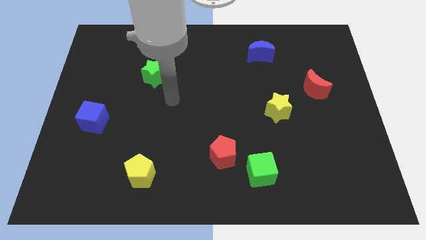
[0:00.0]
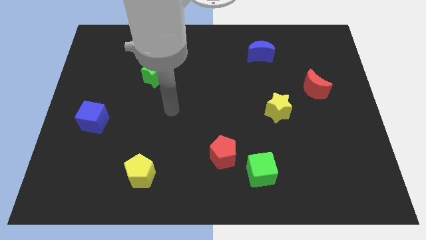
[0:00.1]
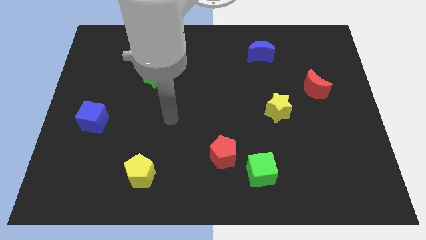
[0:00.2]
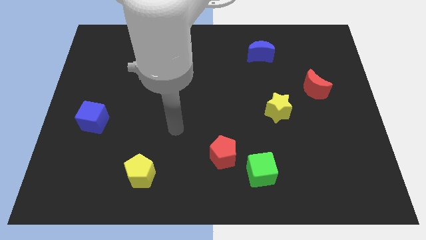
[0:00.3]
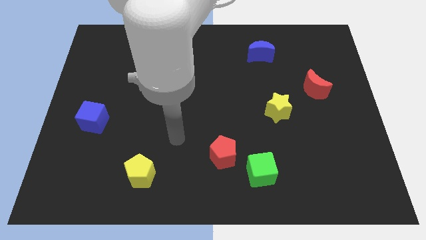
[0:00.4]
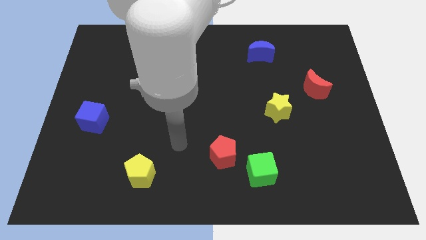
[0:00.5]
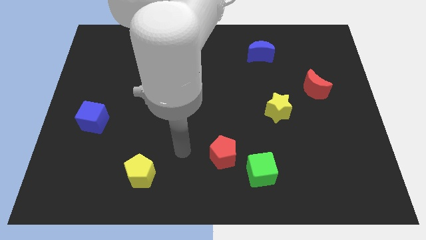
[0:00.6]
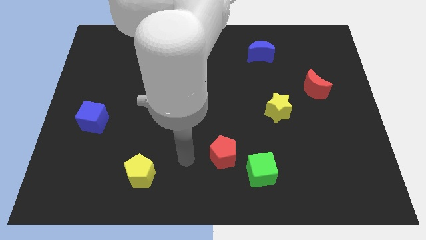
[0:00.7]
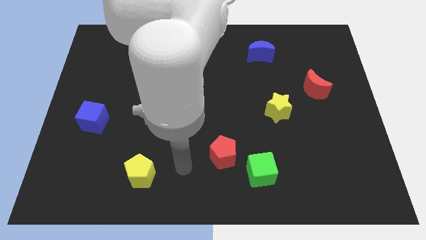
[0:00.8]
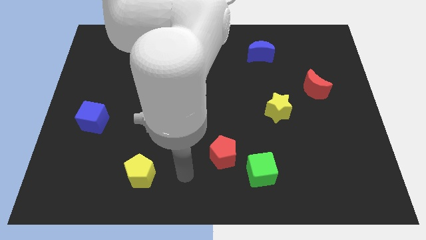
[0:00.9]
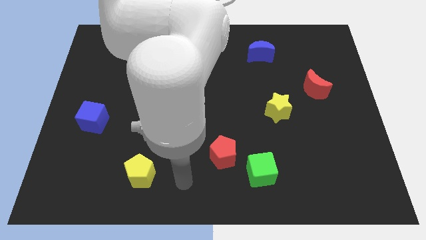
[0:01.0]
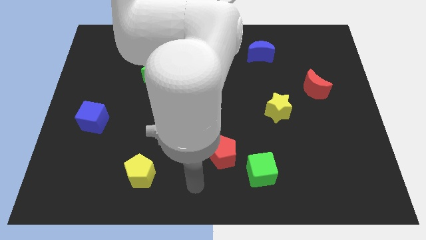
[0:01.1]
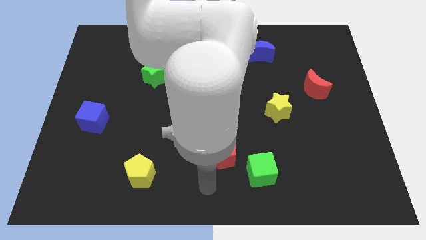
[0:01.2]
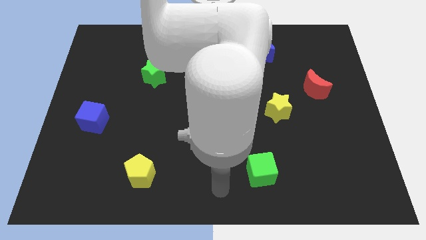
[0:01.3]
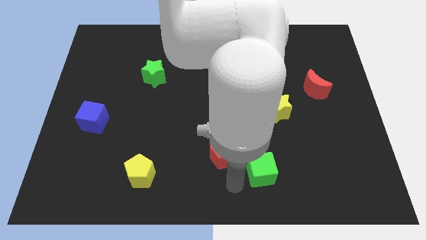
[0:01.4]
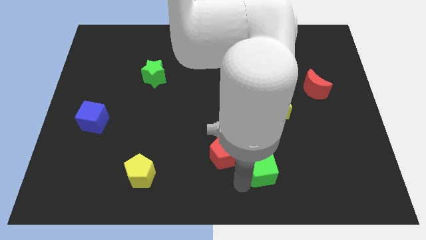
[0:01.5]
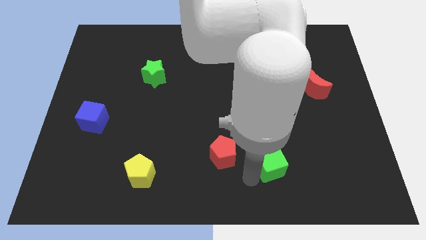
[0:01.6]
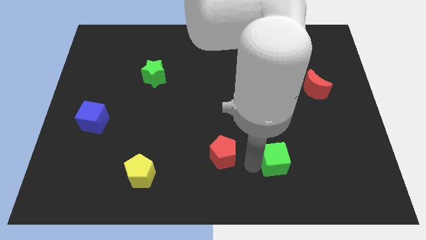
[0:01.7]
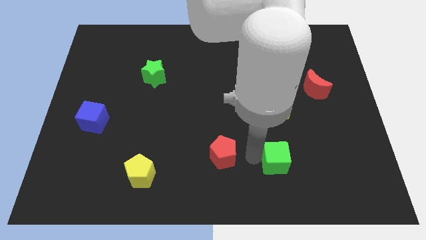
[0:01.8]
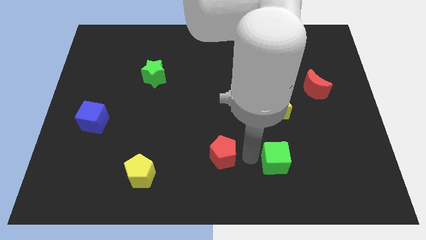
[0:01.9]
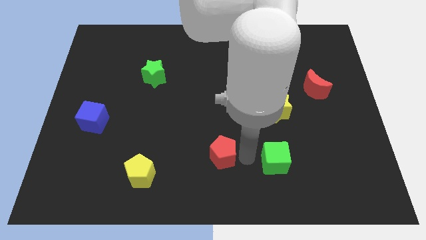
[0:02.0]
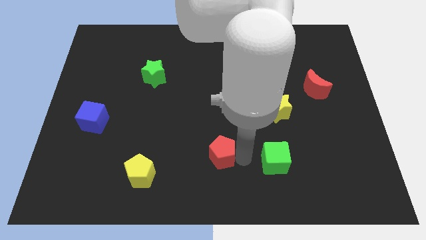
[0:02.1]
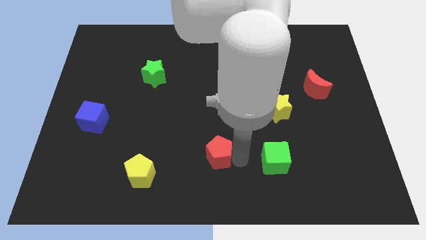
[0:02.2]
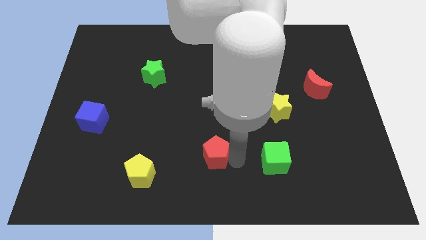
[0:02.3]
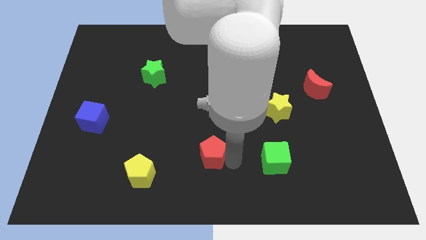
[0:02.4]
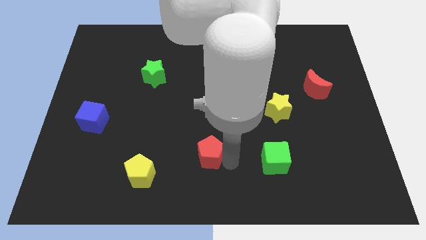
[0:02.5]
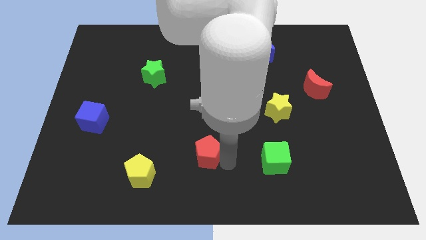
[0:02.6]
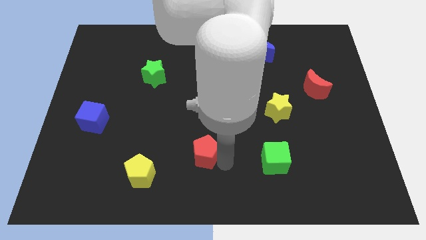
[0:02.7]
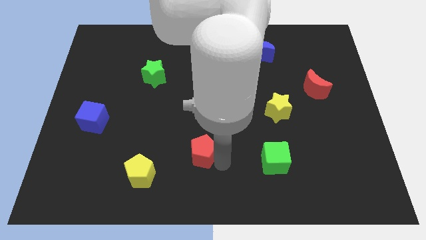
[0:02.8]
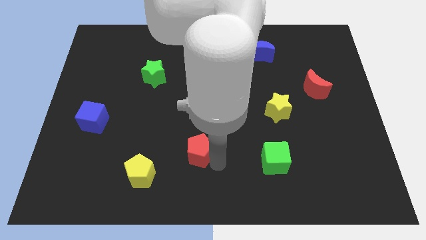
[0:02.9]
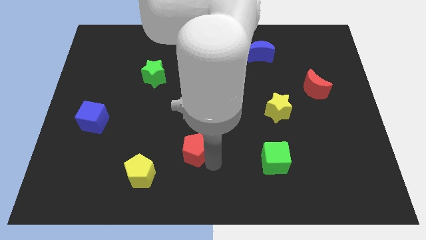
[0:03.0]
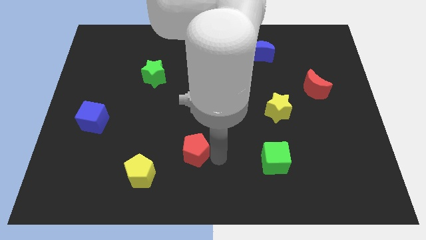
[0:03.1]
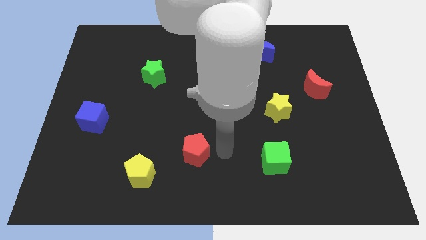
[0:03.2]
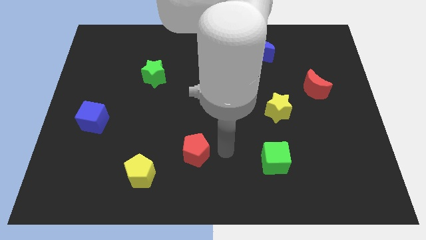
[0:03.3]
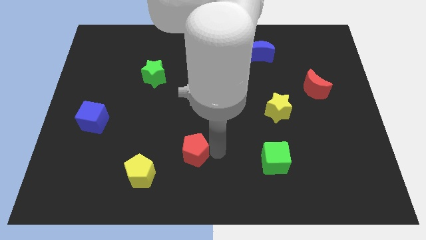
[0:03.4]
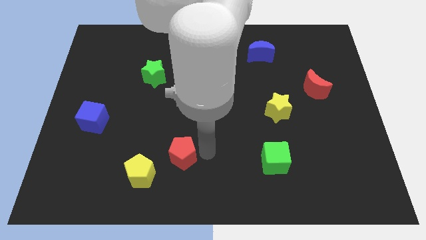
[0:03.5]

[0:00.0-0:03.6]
push the red pentagon to the left slightly

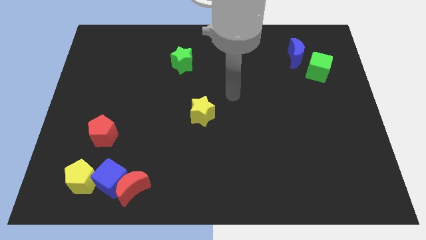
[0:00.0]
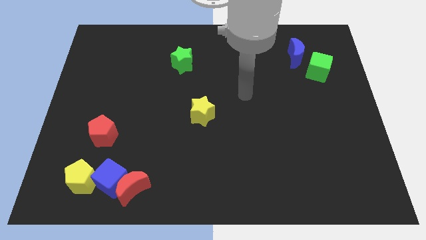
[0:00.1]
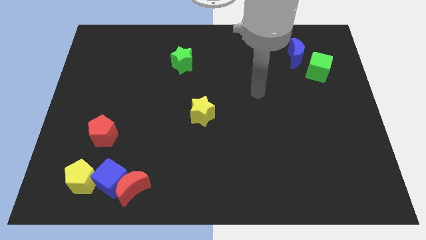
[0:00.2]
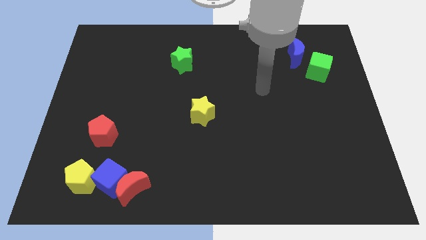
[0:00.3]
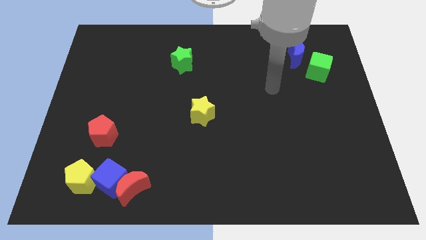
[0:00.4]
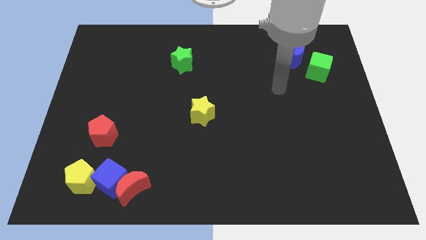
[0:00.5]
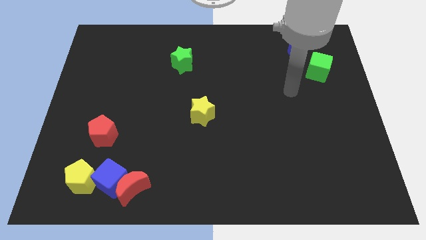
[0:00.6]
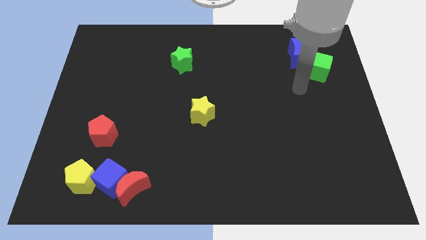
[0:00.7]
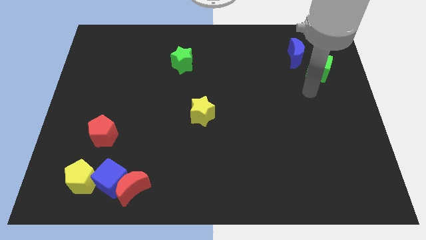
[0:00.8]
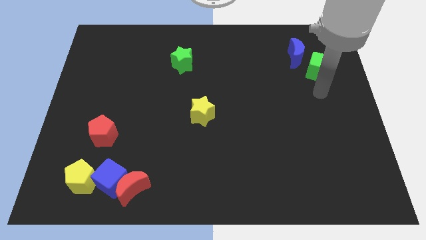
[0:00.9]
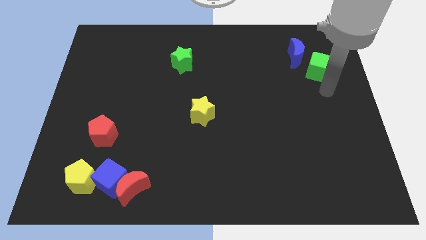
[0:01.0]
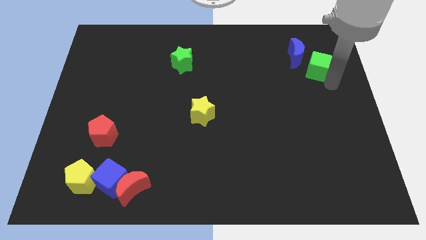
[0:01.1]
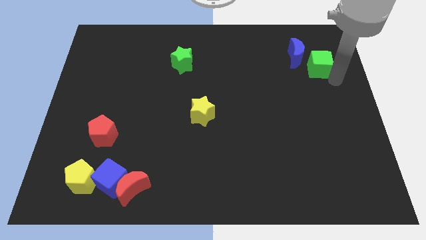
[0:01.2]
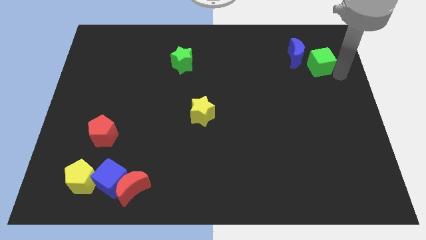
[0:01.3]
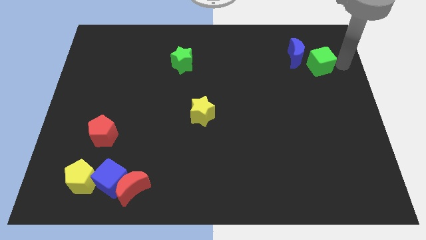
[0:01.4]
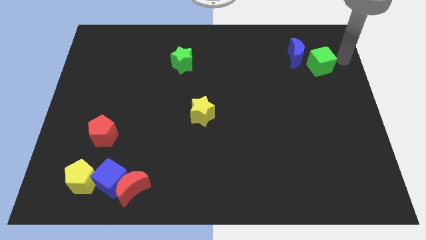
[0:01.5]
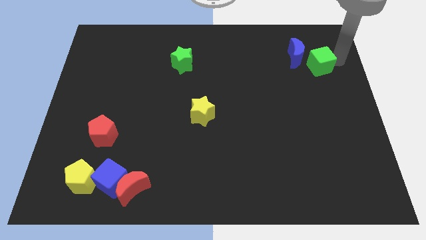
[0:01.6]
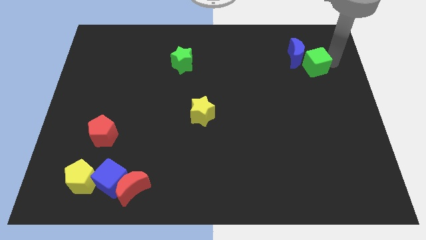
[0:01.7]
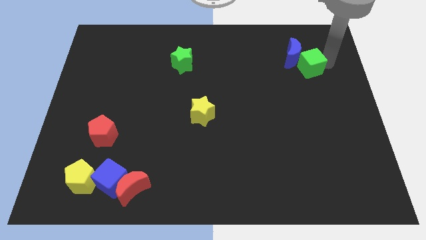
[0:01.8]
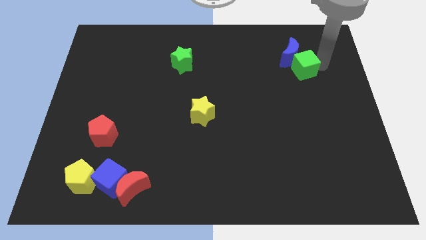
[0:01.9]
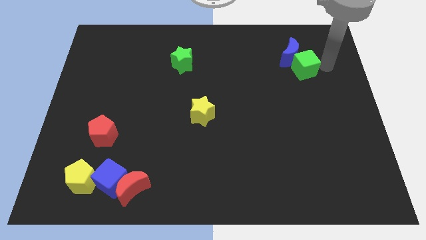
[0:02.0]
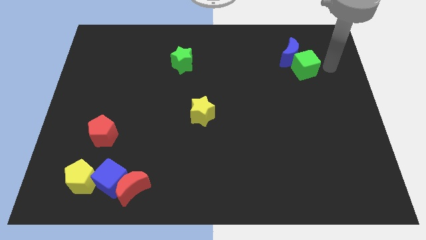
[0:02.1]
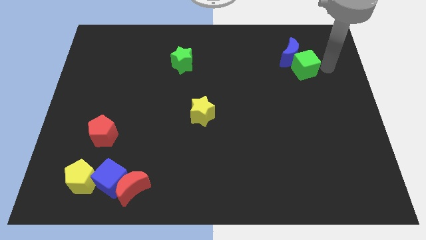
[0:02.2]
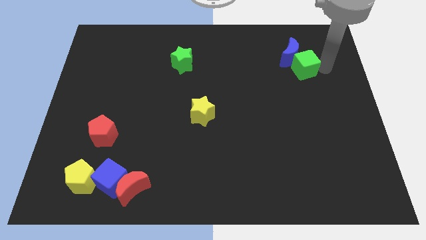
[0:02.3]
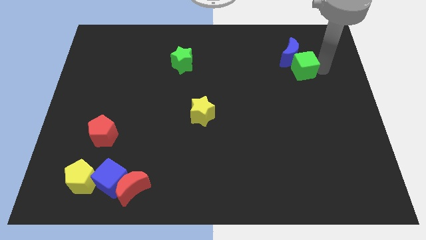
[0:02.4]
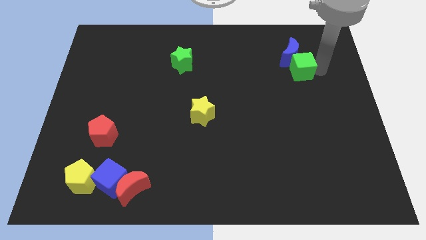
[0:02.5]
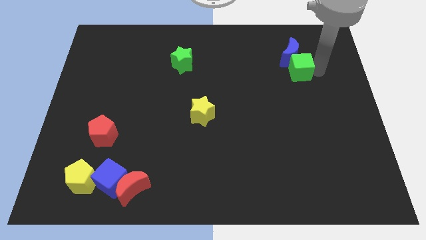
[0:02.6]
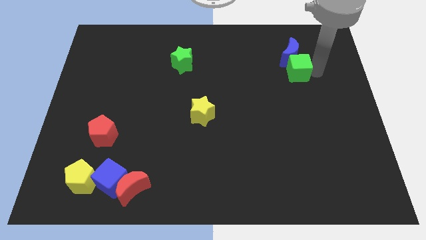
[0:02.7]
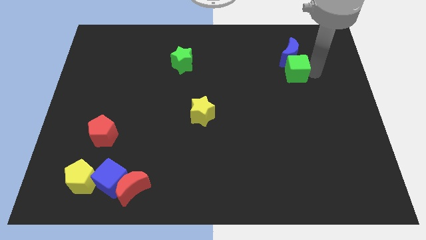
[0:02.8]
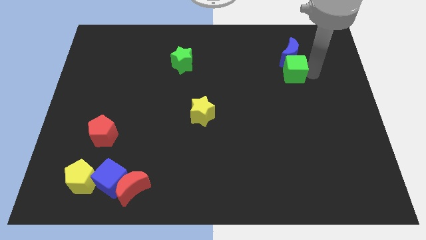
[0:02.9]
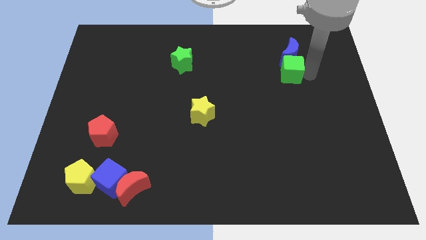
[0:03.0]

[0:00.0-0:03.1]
slightly push the green cube to the left

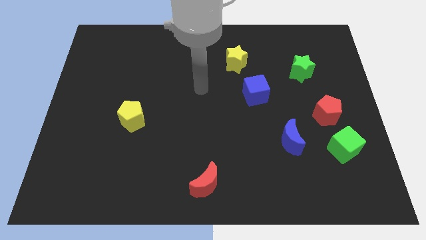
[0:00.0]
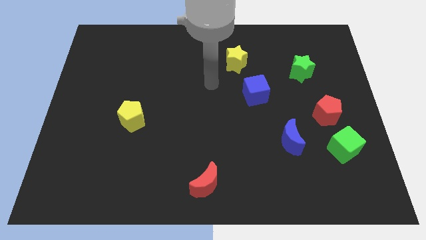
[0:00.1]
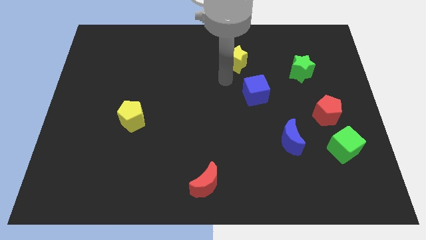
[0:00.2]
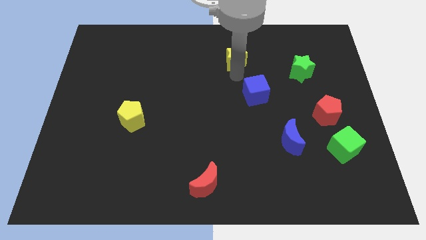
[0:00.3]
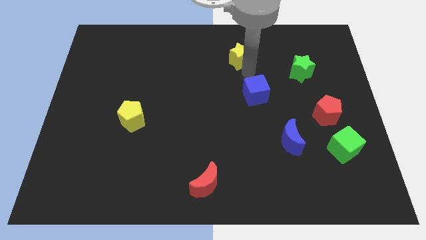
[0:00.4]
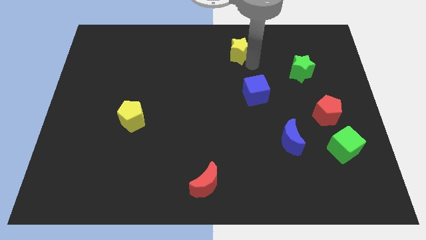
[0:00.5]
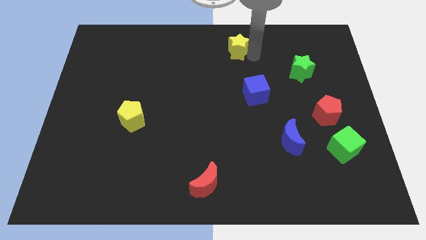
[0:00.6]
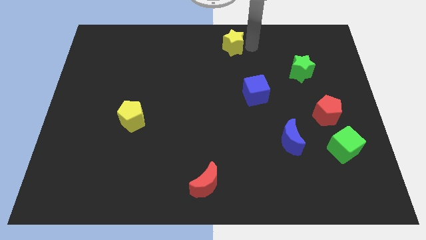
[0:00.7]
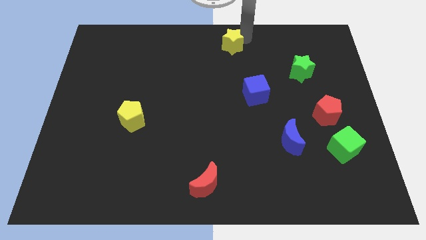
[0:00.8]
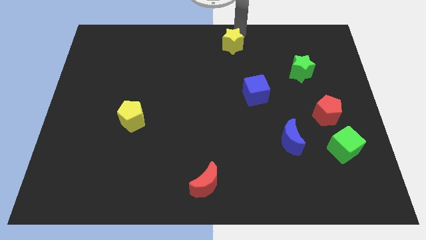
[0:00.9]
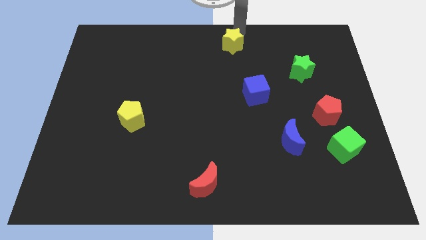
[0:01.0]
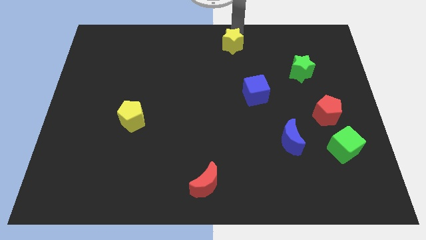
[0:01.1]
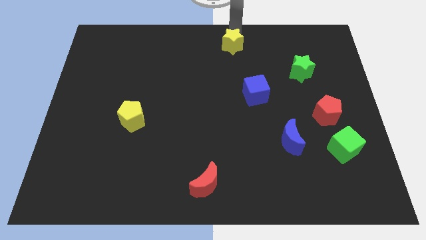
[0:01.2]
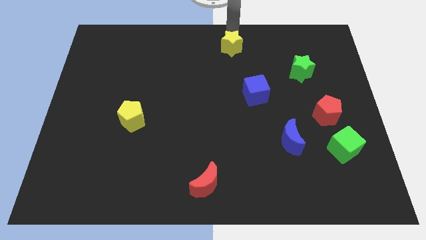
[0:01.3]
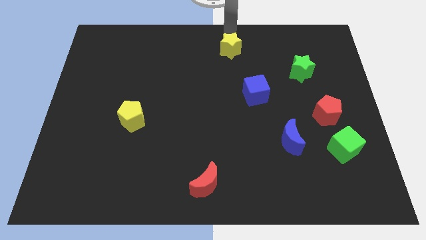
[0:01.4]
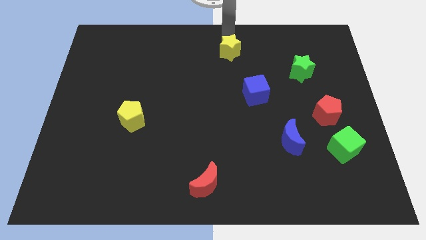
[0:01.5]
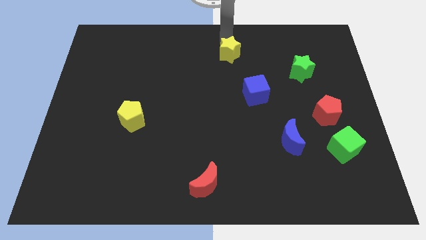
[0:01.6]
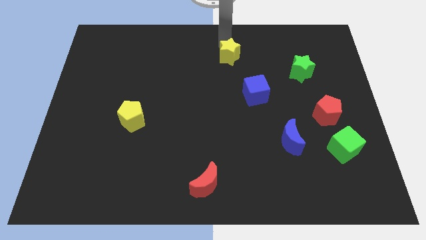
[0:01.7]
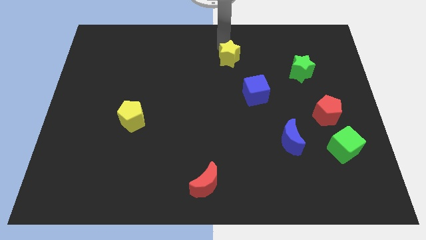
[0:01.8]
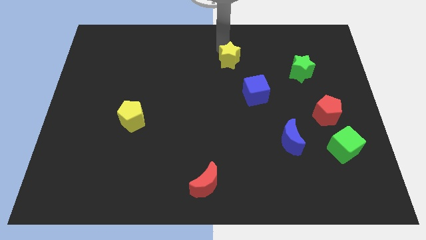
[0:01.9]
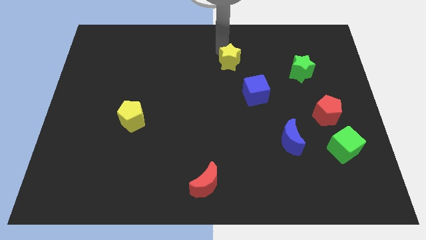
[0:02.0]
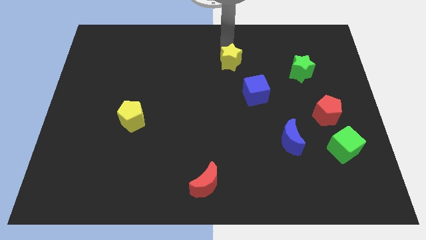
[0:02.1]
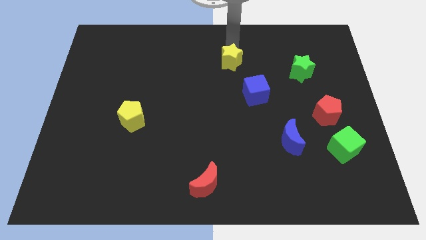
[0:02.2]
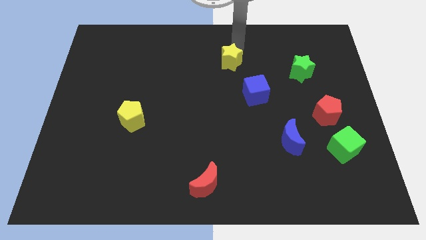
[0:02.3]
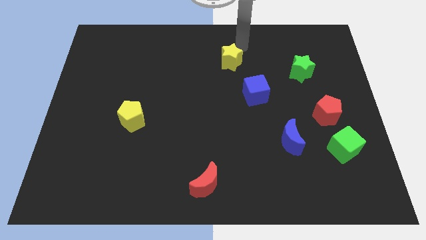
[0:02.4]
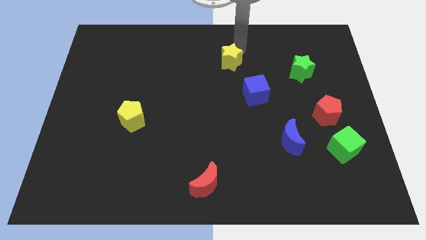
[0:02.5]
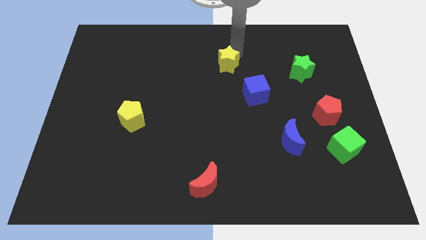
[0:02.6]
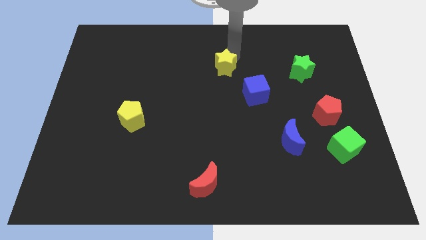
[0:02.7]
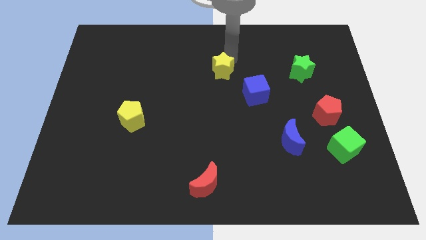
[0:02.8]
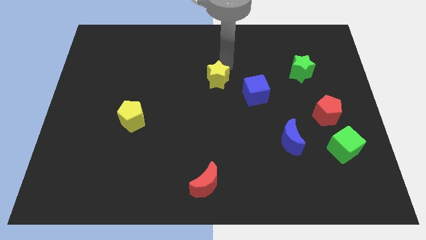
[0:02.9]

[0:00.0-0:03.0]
slightly move the yellow star downwards and to the left diagonally
